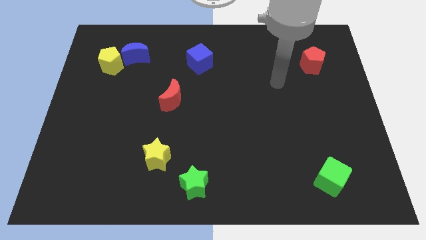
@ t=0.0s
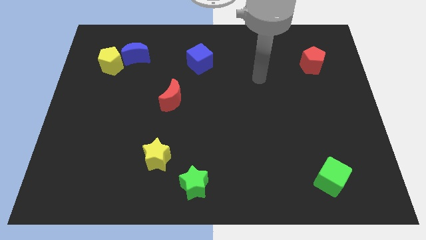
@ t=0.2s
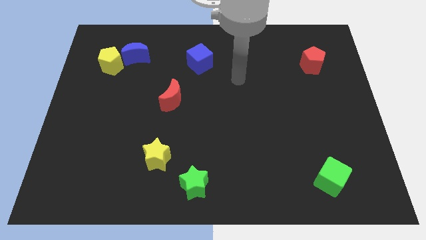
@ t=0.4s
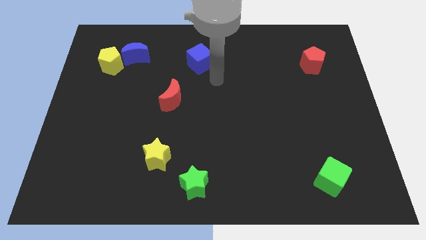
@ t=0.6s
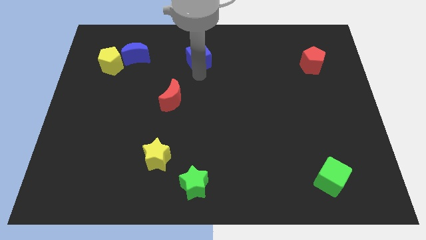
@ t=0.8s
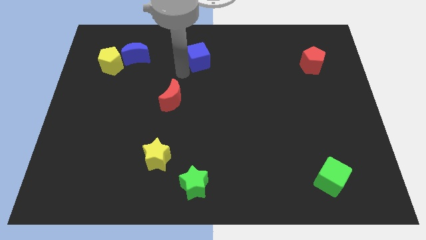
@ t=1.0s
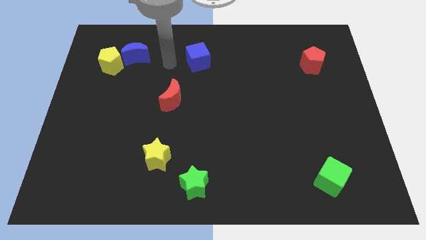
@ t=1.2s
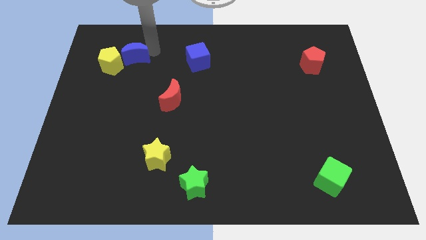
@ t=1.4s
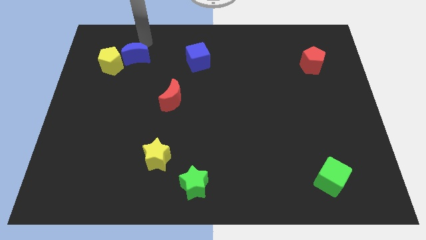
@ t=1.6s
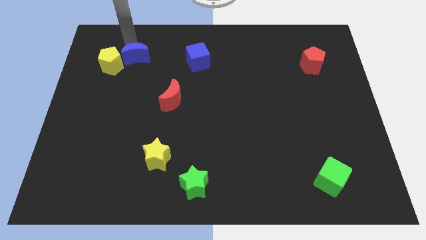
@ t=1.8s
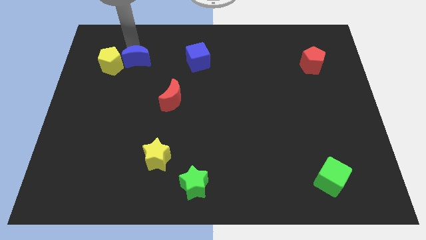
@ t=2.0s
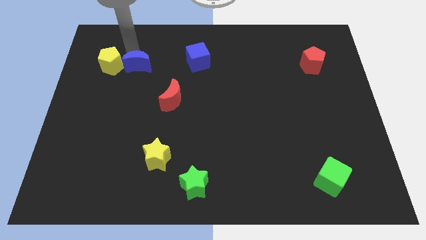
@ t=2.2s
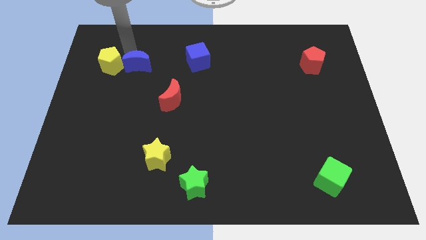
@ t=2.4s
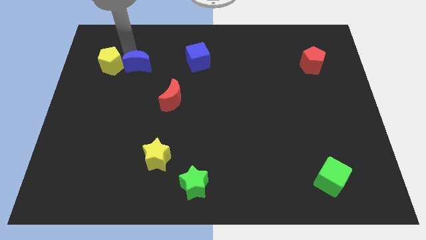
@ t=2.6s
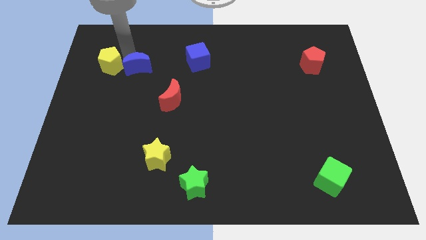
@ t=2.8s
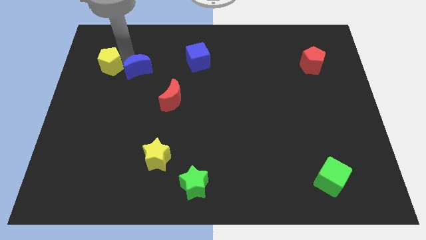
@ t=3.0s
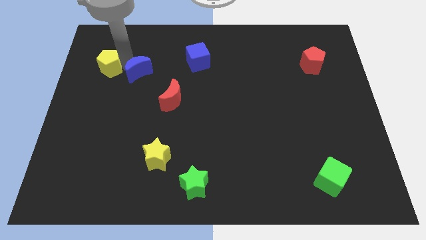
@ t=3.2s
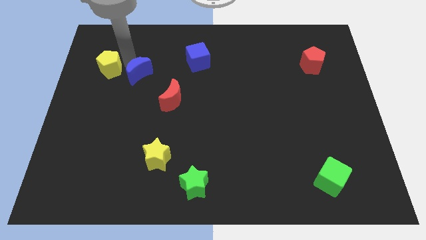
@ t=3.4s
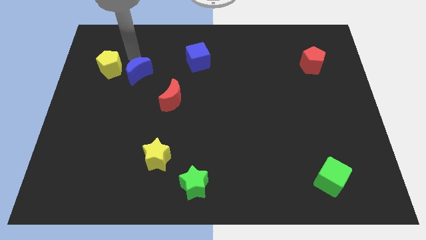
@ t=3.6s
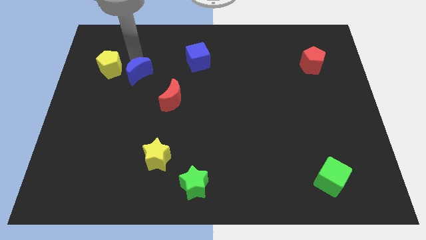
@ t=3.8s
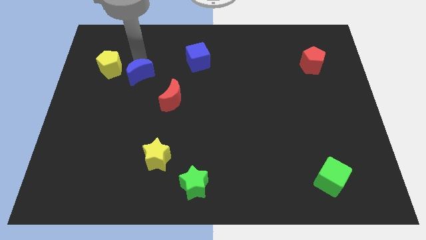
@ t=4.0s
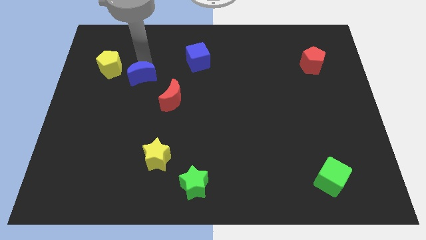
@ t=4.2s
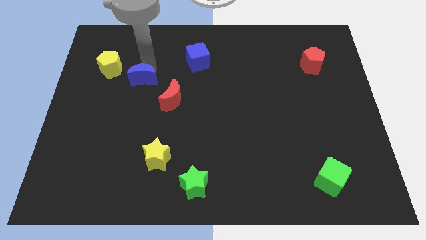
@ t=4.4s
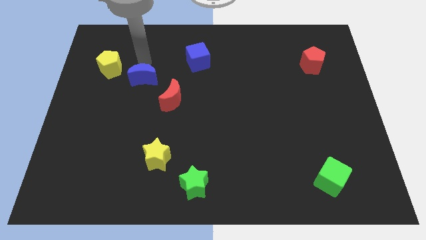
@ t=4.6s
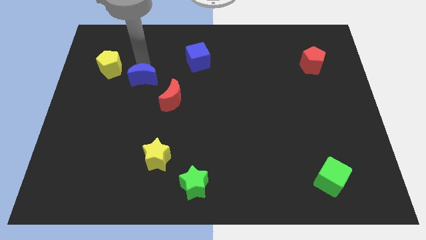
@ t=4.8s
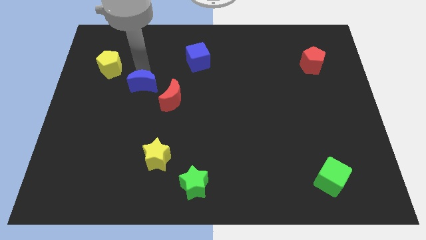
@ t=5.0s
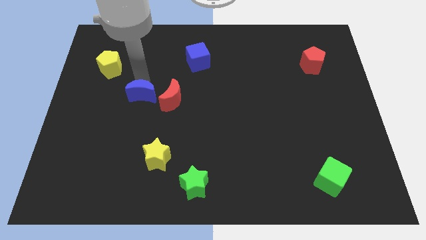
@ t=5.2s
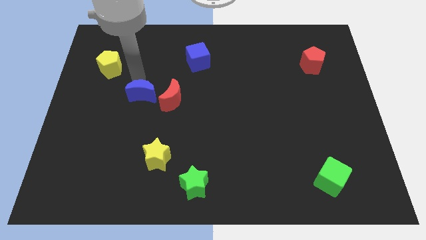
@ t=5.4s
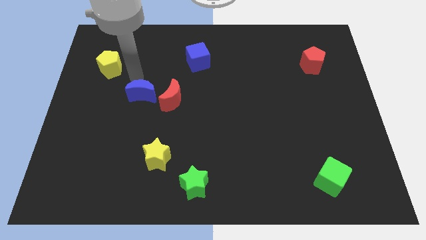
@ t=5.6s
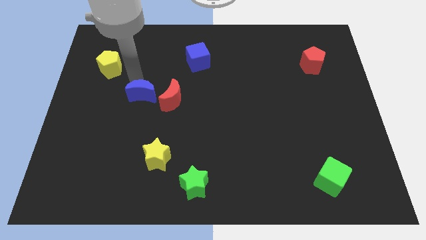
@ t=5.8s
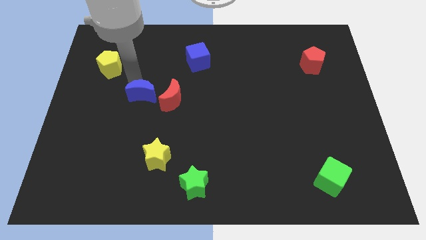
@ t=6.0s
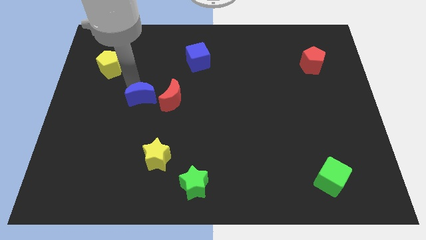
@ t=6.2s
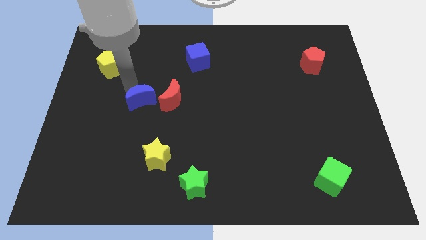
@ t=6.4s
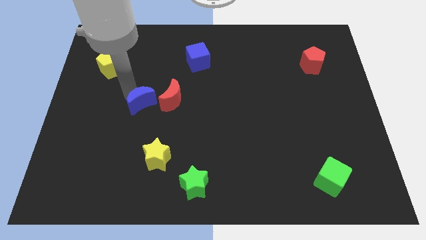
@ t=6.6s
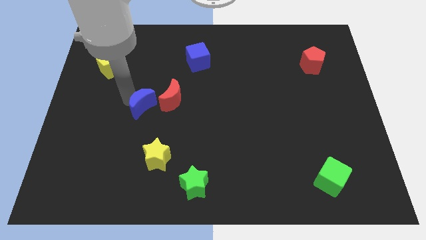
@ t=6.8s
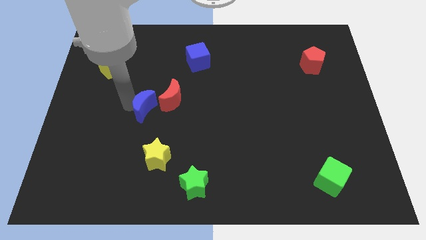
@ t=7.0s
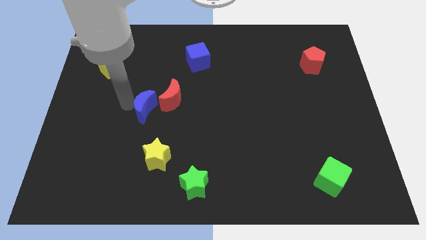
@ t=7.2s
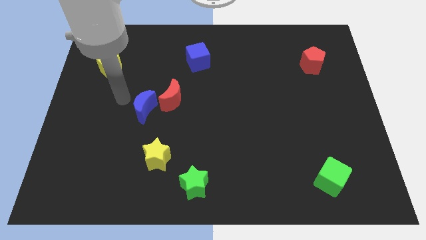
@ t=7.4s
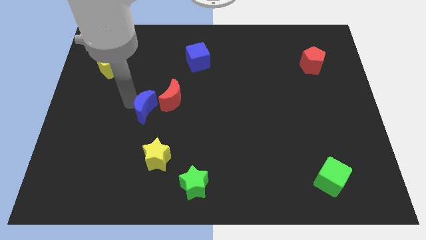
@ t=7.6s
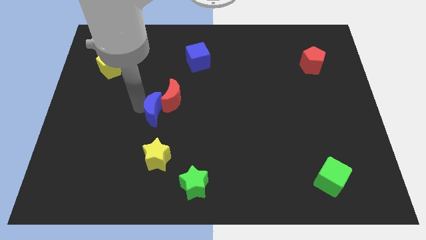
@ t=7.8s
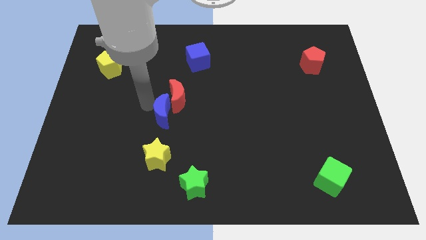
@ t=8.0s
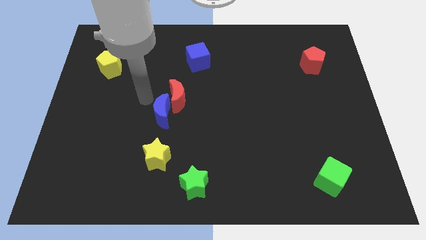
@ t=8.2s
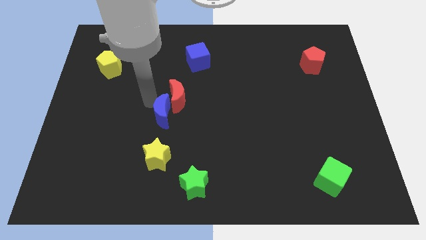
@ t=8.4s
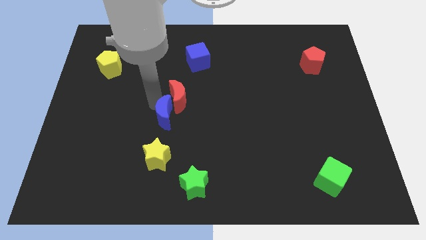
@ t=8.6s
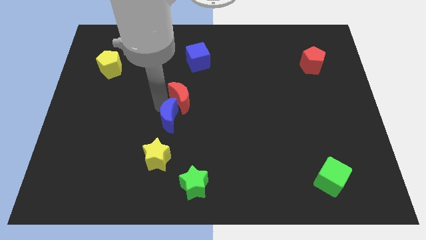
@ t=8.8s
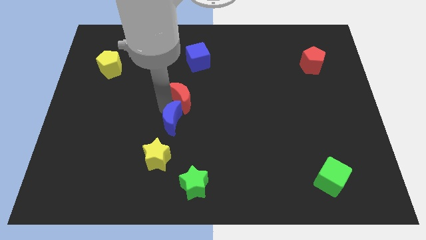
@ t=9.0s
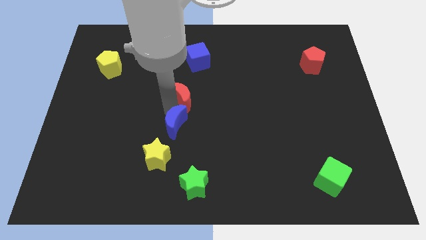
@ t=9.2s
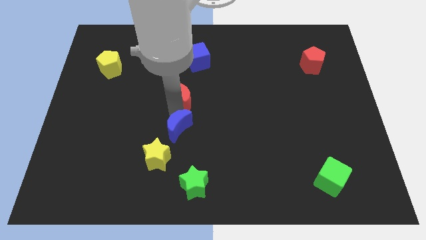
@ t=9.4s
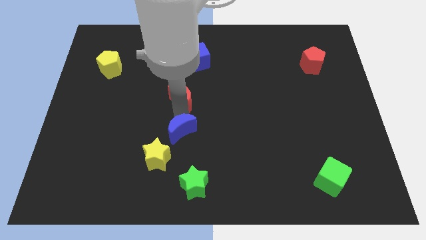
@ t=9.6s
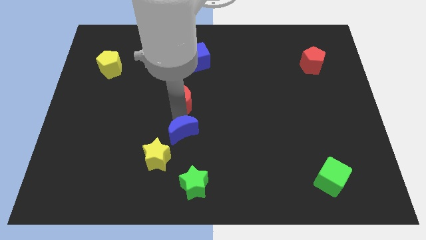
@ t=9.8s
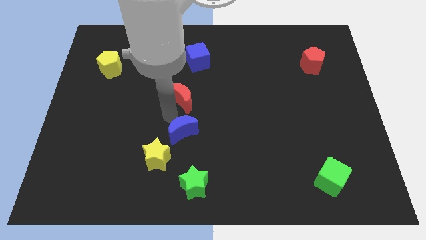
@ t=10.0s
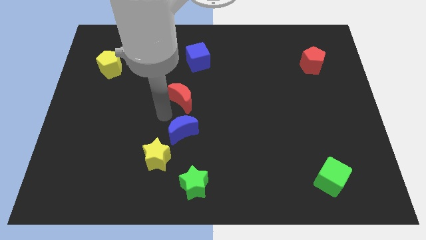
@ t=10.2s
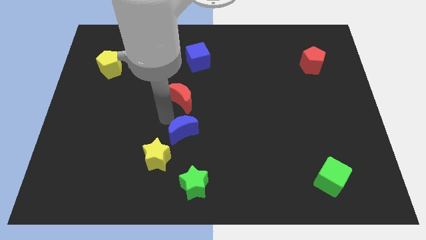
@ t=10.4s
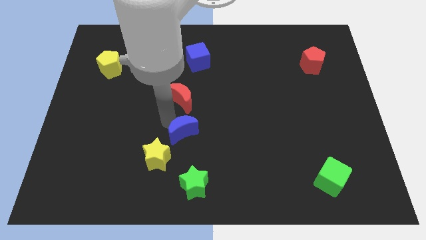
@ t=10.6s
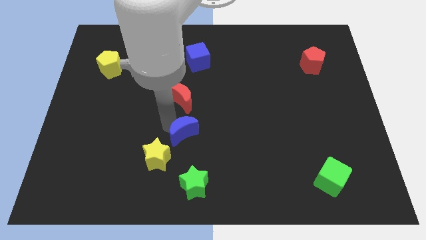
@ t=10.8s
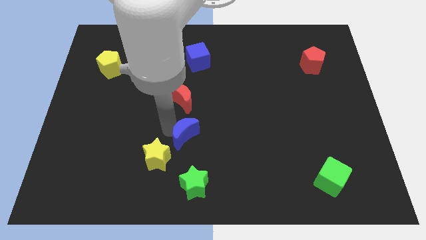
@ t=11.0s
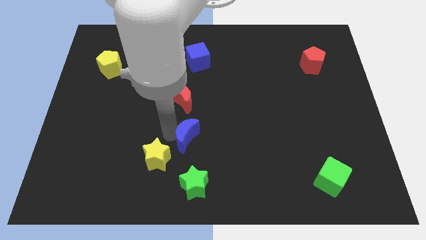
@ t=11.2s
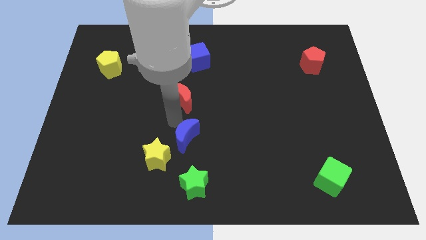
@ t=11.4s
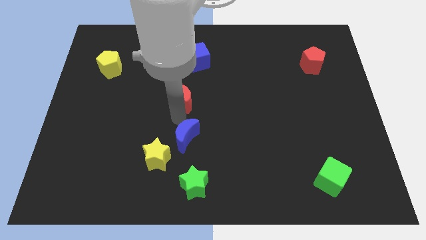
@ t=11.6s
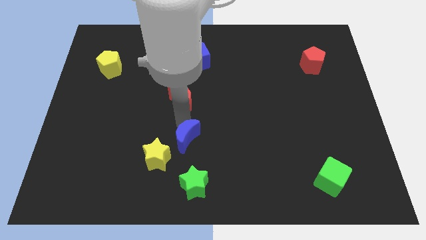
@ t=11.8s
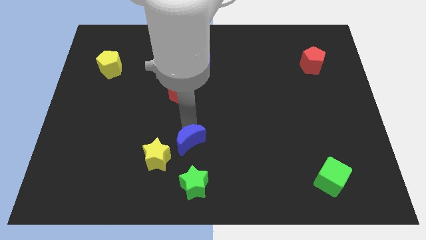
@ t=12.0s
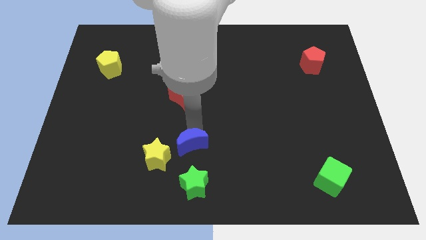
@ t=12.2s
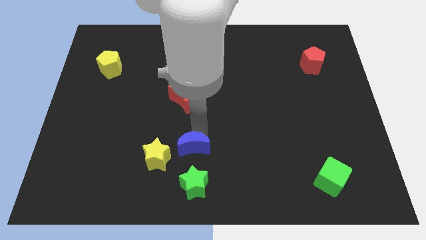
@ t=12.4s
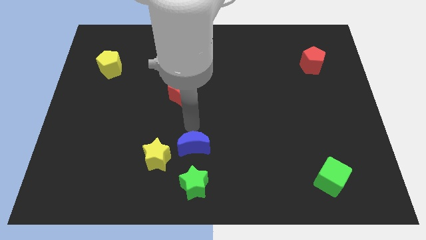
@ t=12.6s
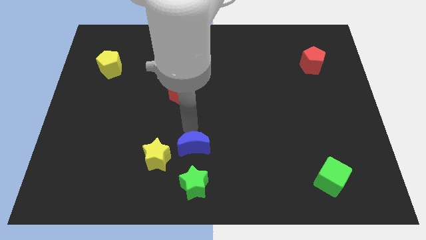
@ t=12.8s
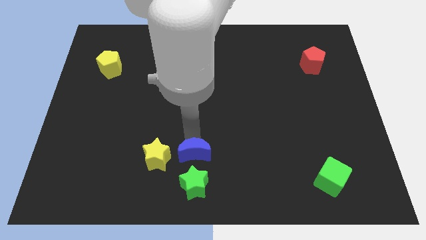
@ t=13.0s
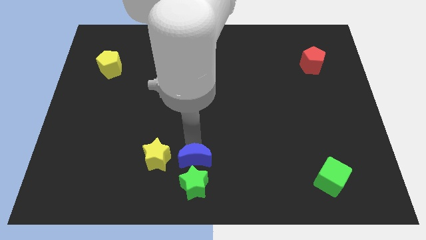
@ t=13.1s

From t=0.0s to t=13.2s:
move the blue moon to the green star

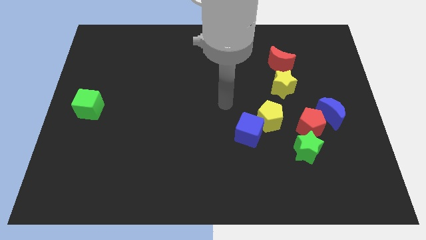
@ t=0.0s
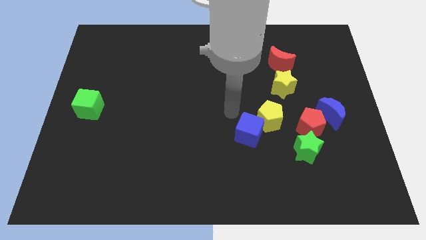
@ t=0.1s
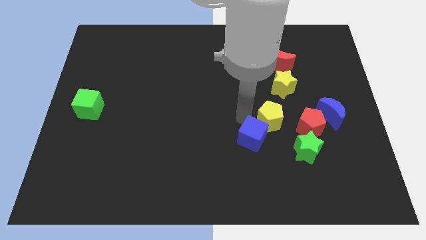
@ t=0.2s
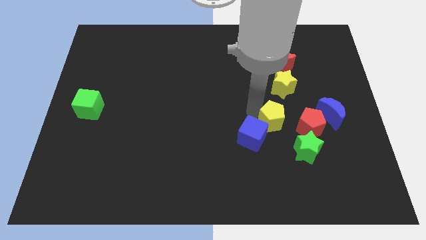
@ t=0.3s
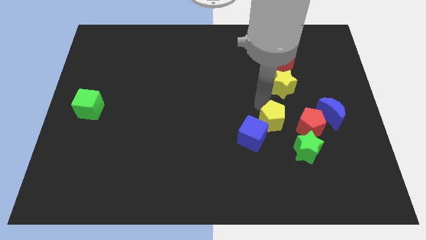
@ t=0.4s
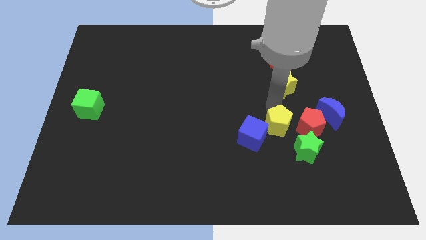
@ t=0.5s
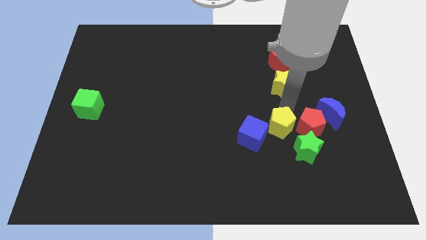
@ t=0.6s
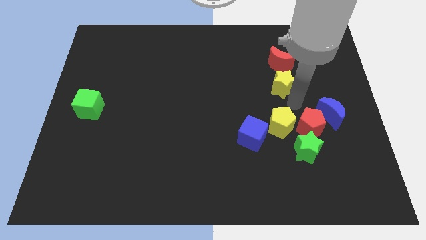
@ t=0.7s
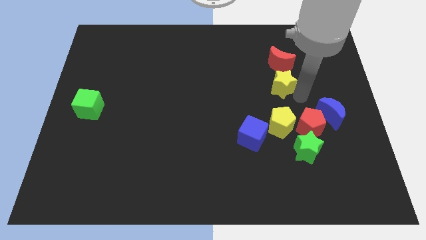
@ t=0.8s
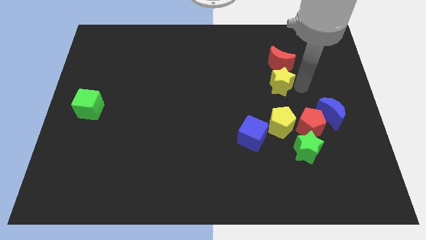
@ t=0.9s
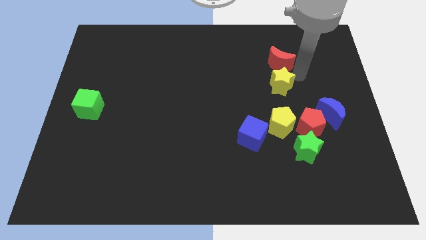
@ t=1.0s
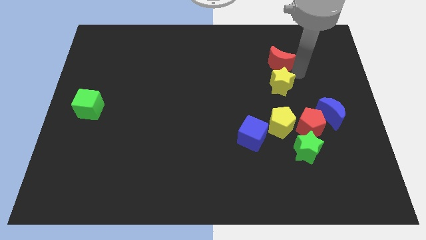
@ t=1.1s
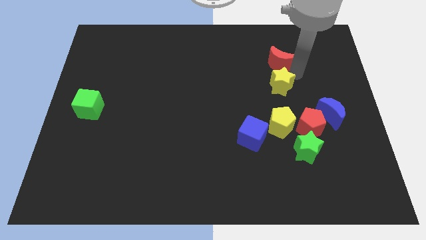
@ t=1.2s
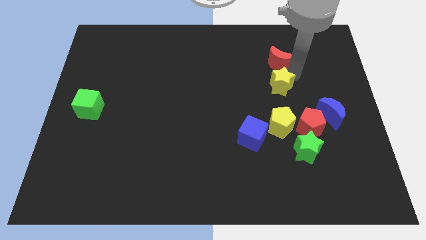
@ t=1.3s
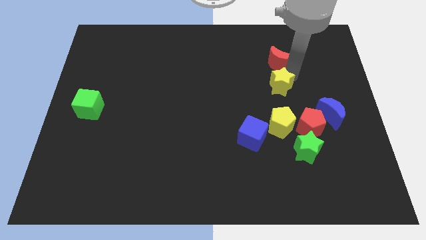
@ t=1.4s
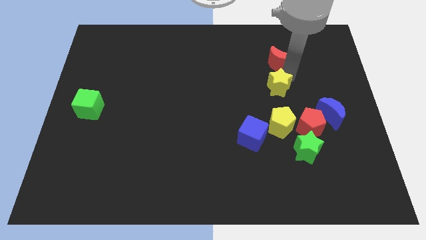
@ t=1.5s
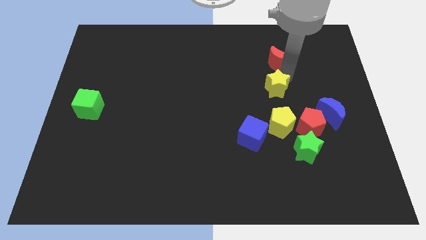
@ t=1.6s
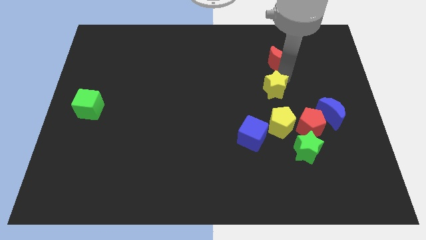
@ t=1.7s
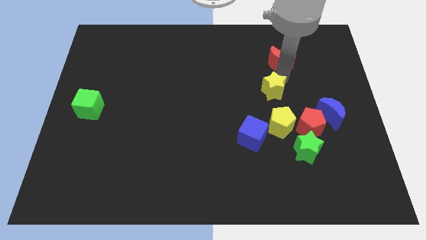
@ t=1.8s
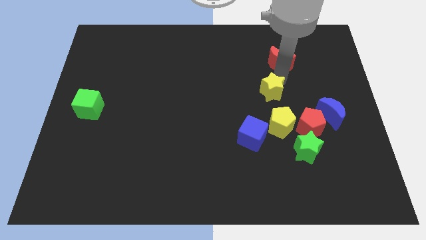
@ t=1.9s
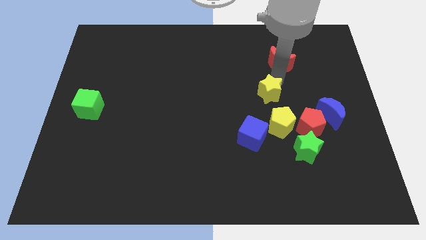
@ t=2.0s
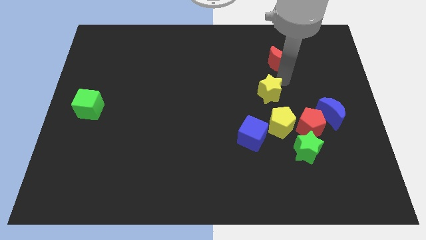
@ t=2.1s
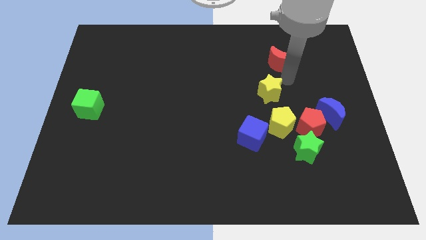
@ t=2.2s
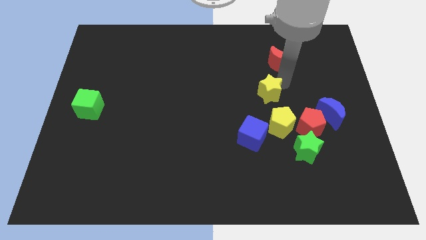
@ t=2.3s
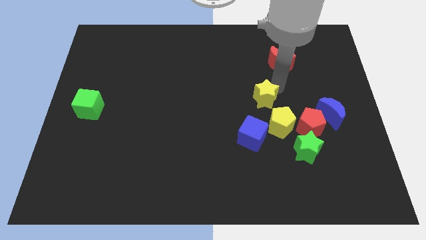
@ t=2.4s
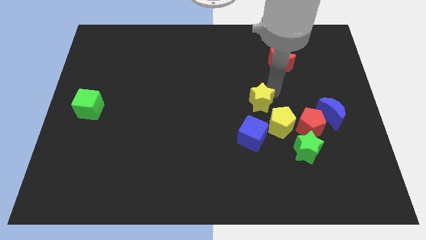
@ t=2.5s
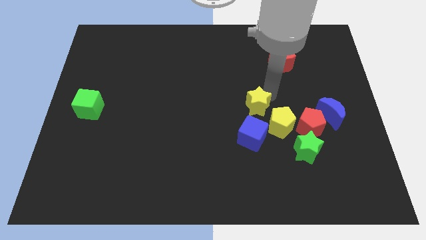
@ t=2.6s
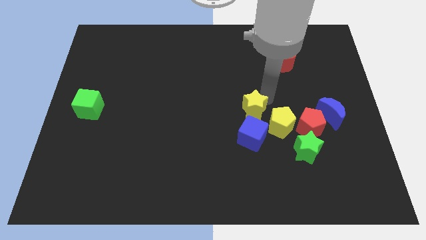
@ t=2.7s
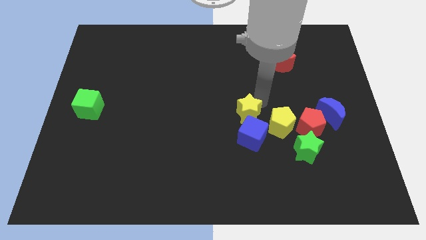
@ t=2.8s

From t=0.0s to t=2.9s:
move the yellow star close to the blue cube
